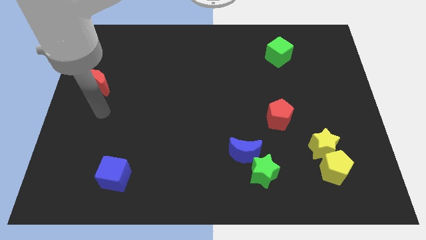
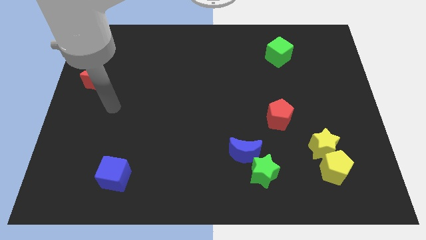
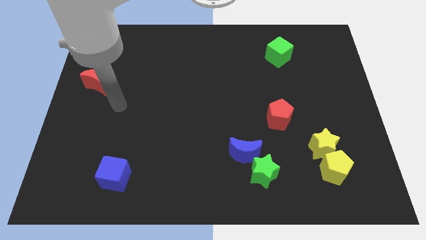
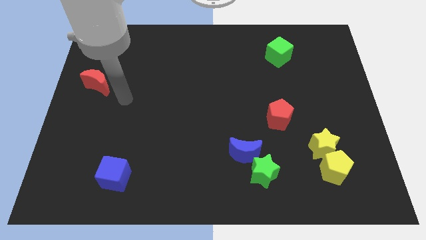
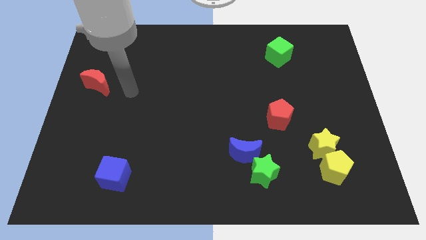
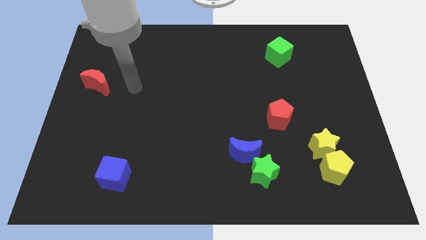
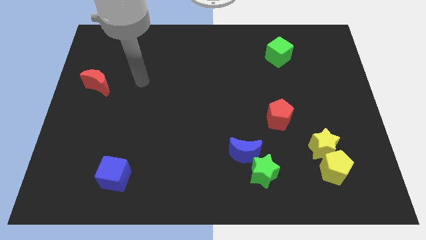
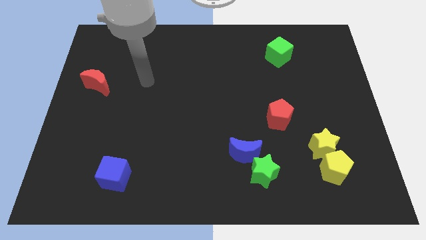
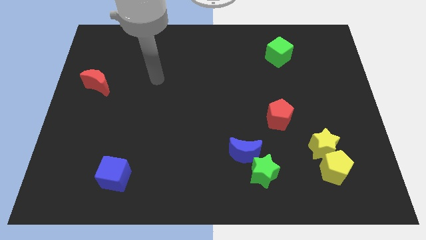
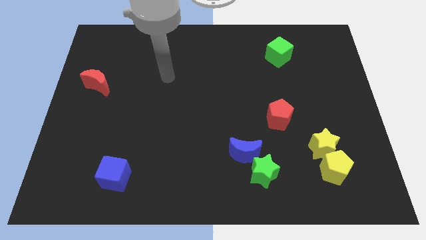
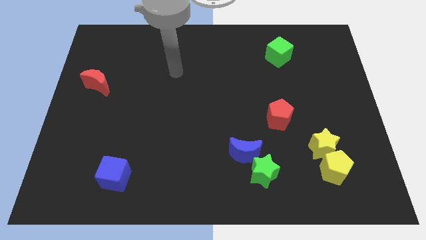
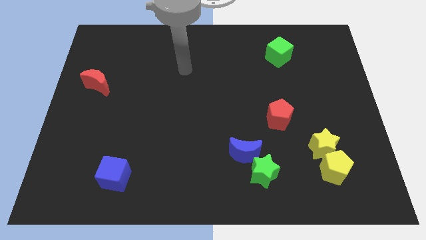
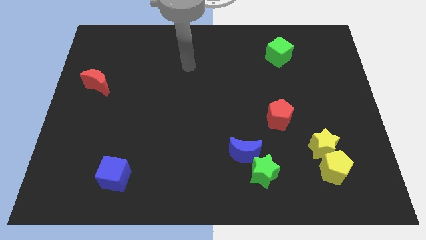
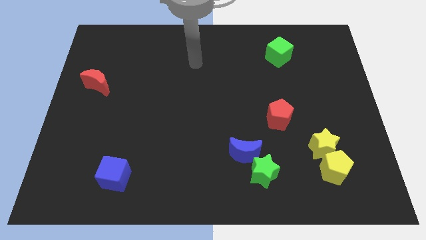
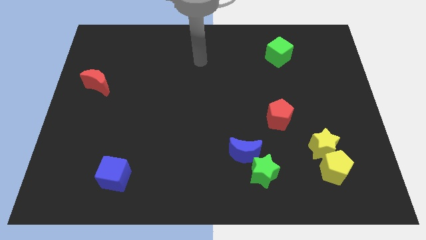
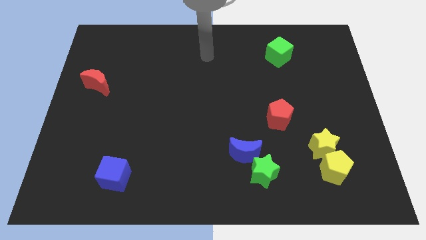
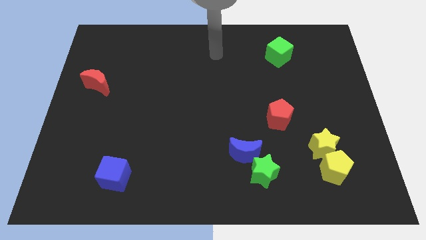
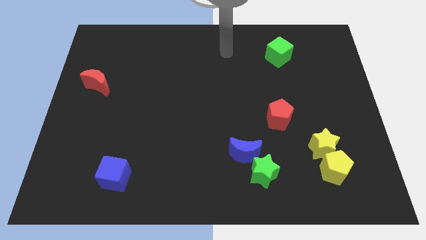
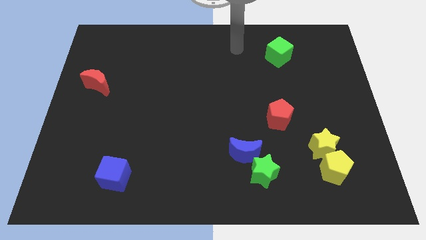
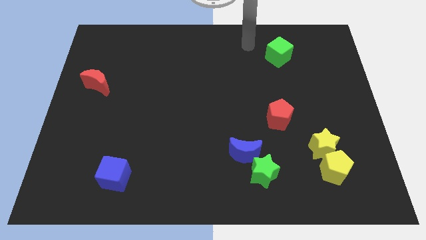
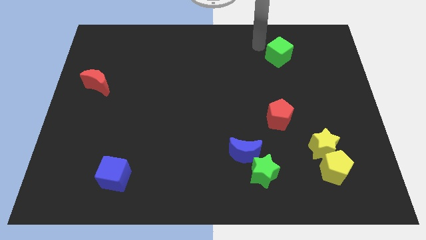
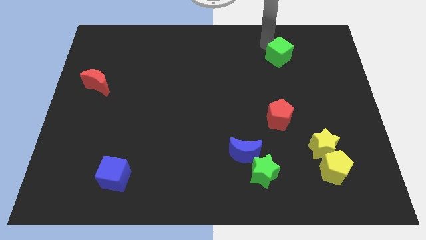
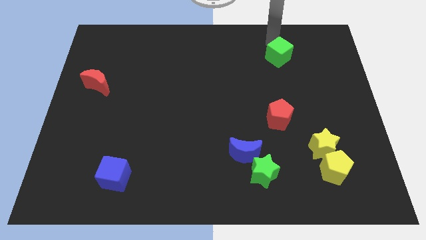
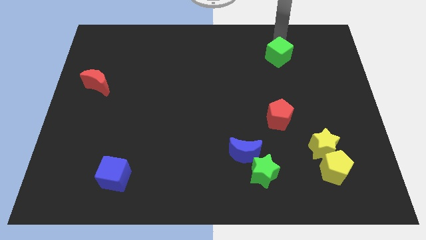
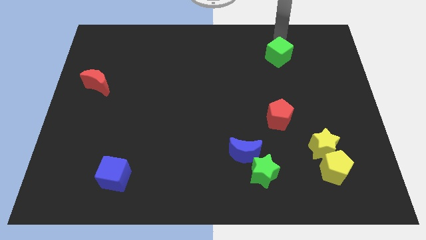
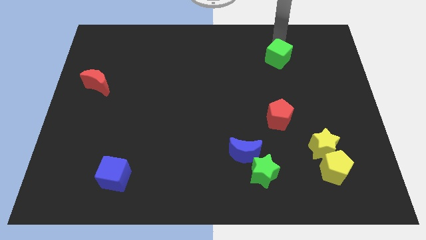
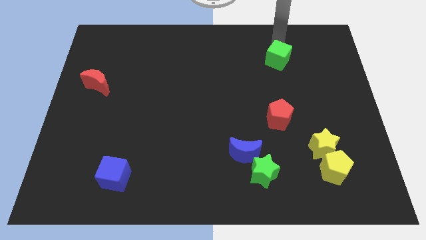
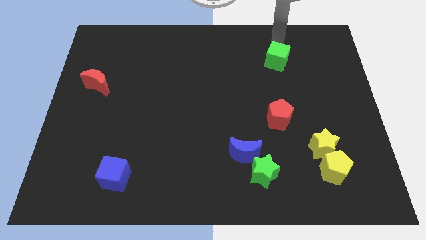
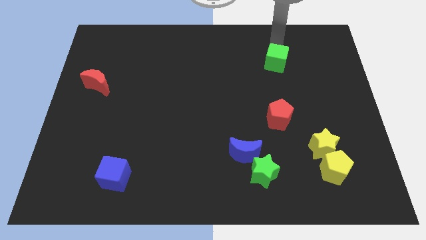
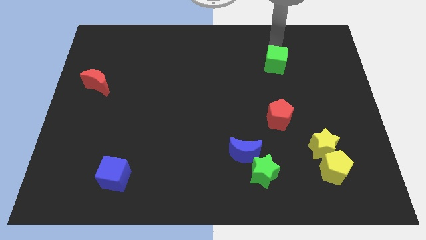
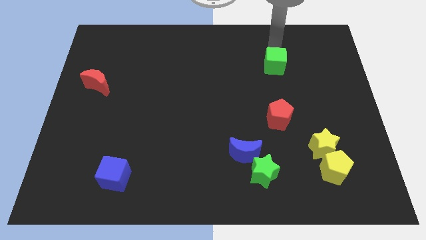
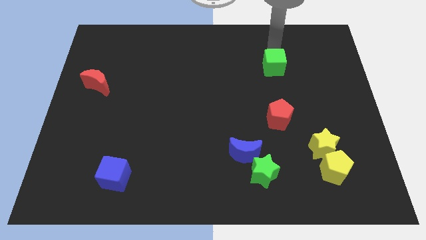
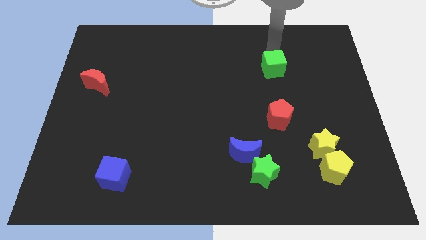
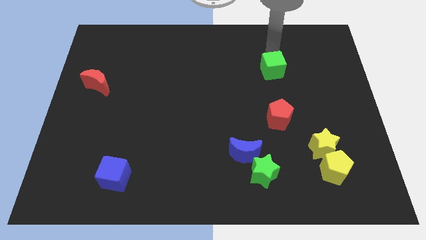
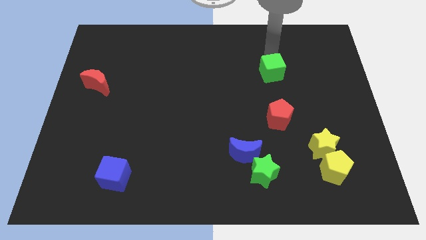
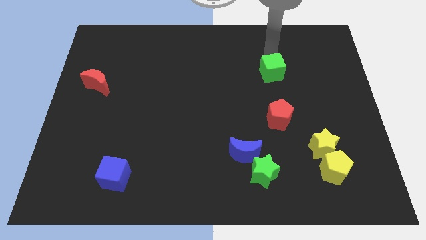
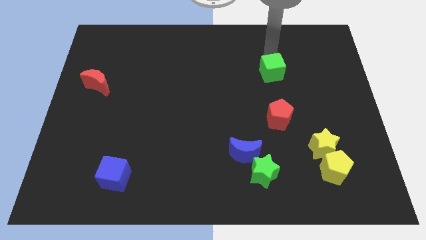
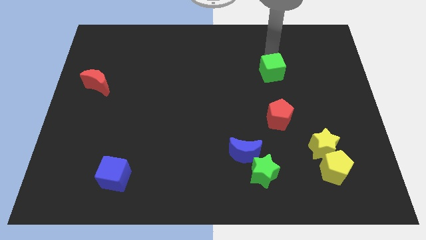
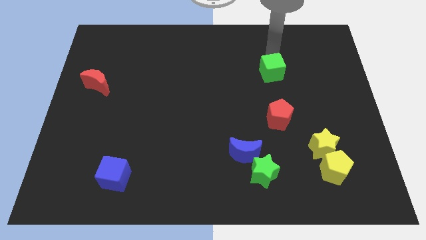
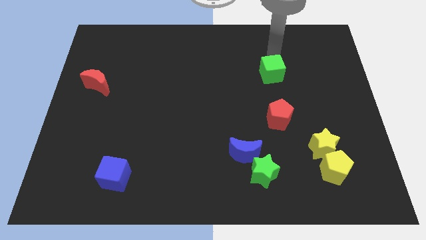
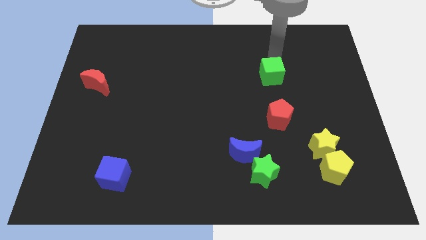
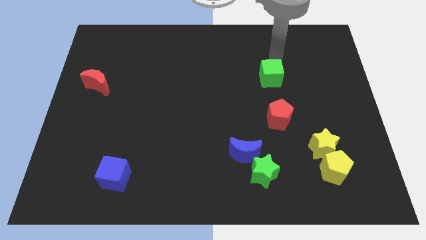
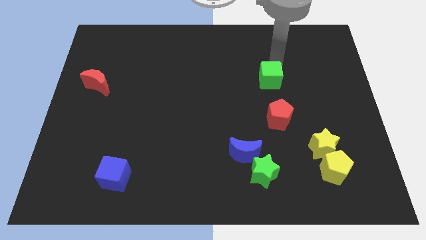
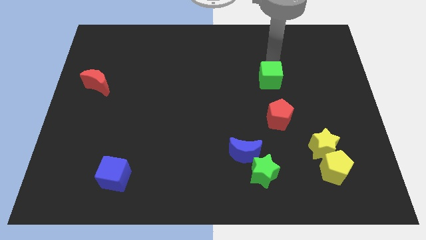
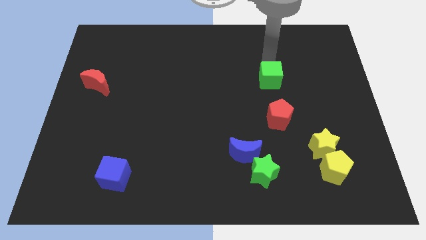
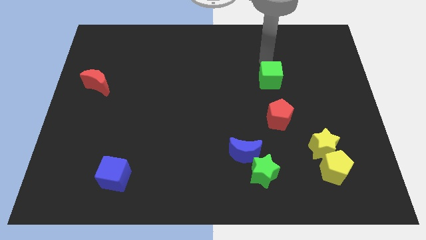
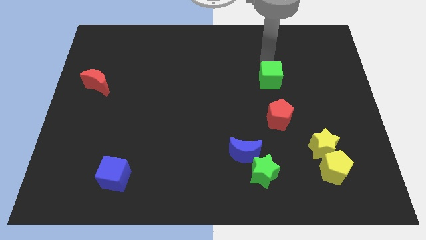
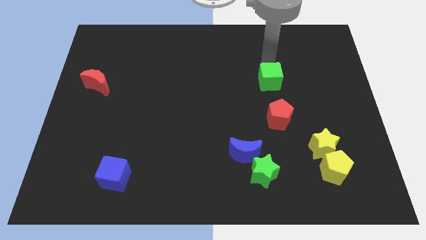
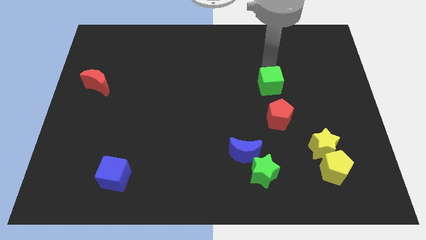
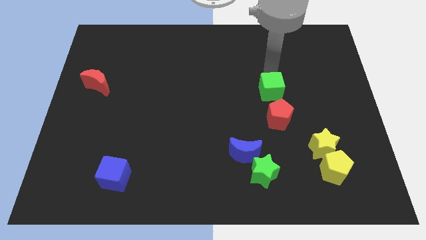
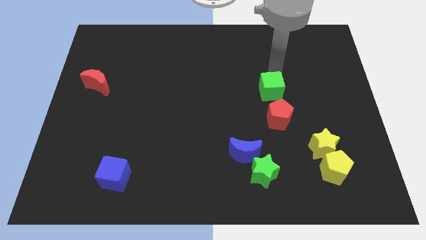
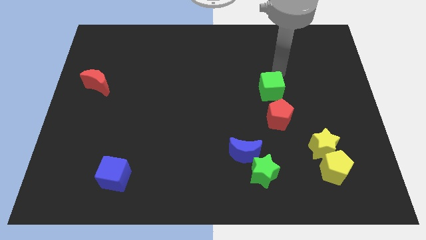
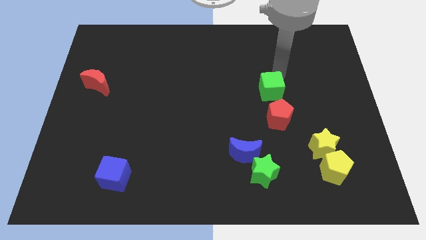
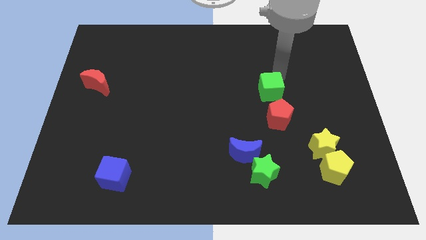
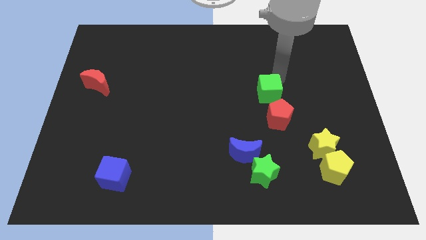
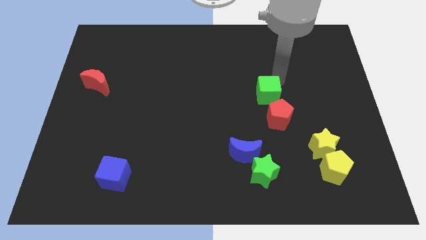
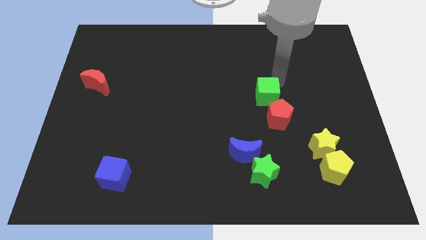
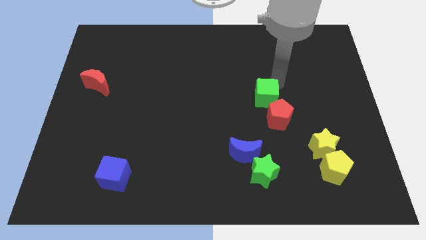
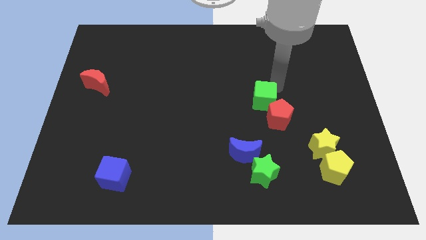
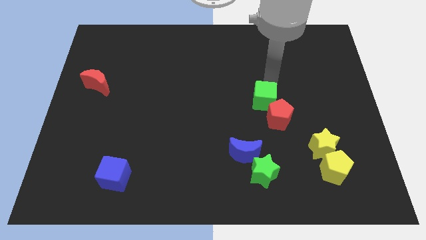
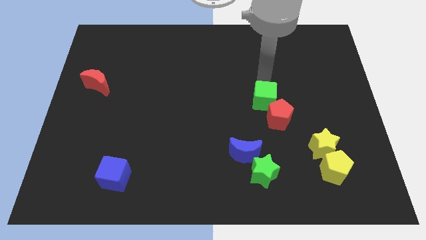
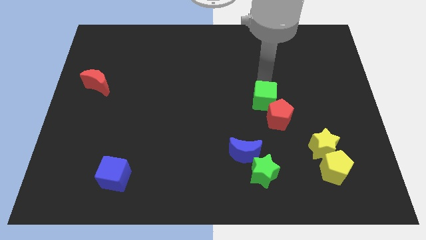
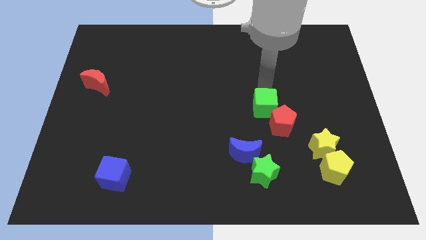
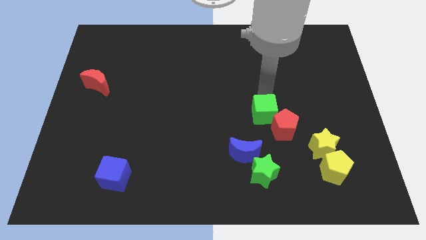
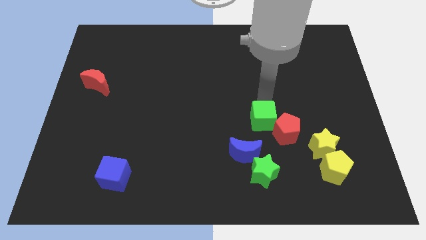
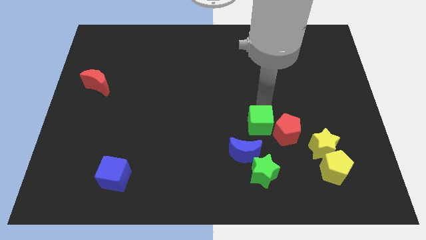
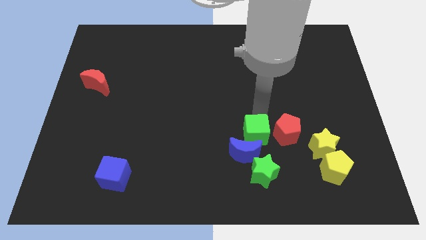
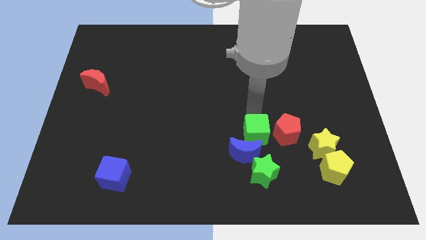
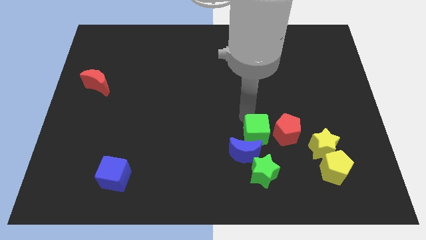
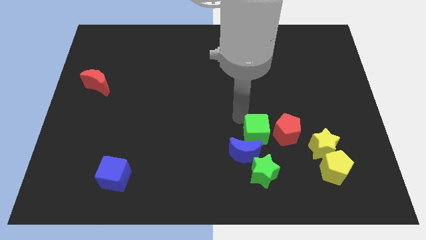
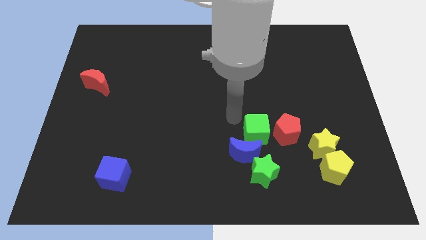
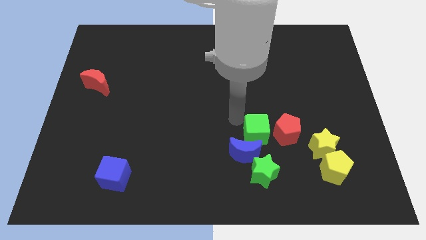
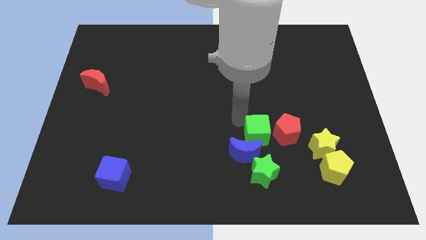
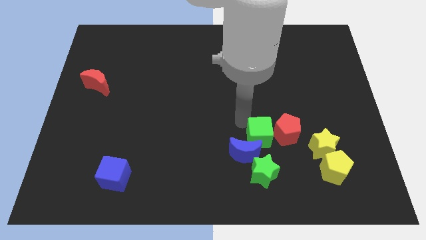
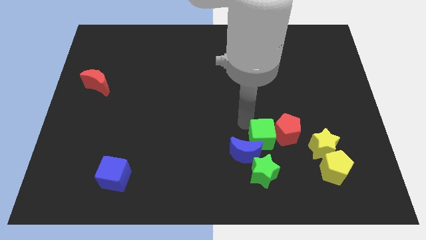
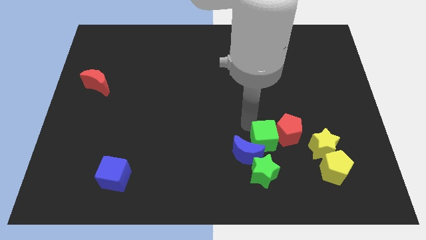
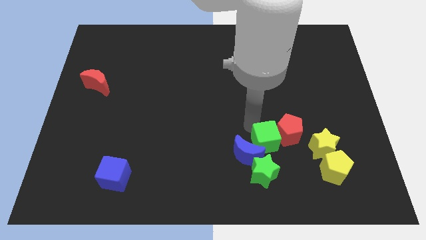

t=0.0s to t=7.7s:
push the green cube to the top right side of the green star
